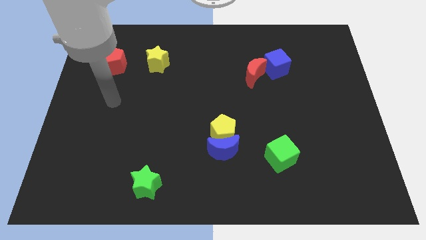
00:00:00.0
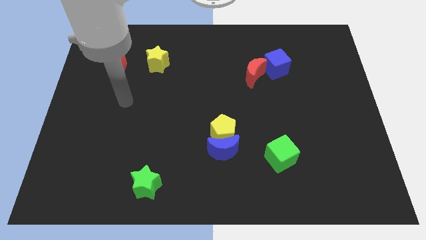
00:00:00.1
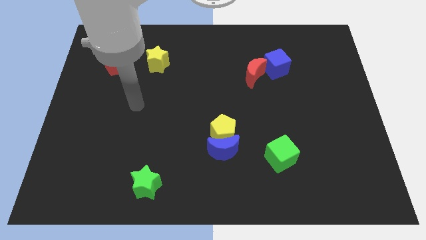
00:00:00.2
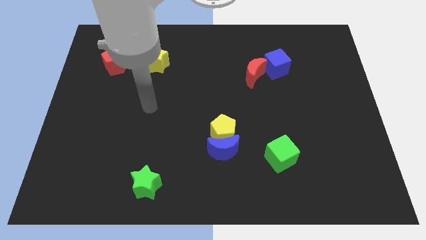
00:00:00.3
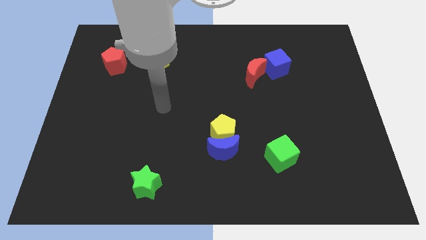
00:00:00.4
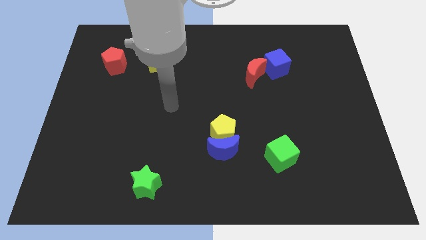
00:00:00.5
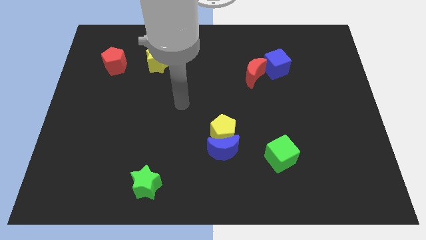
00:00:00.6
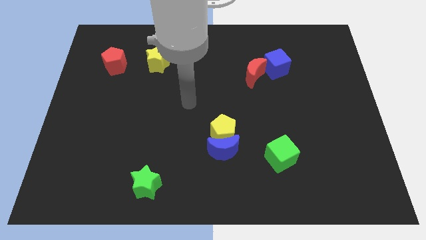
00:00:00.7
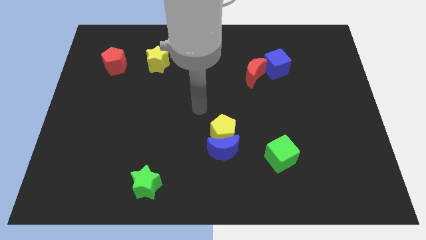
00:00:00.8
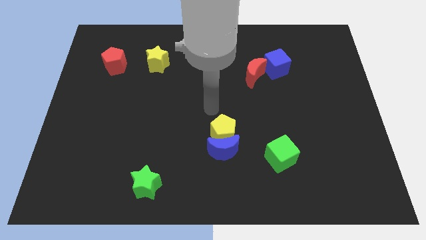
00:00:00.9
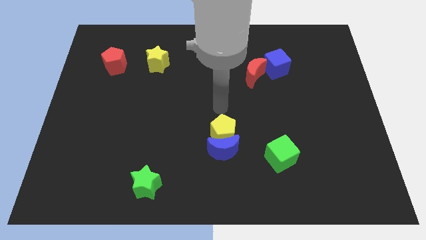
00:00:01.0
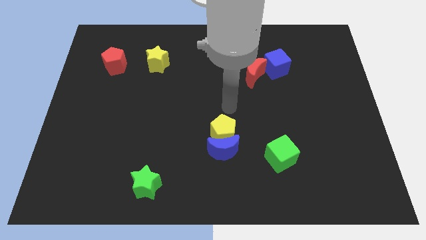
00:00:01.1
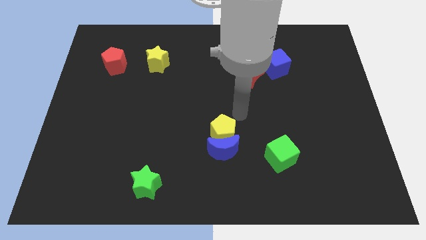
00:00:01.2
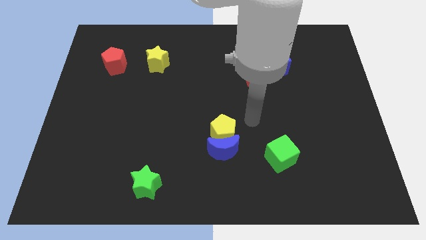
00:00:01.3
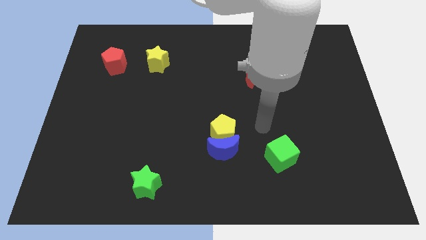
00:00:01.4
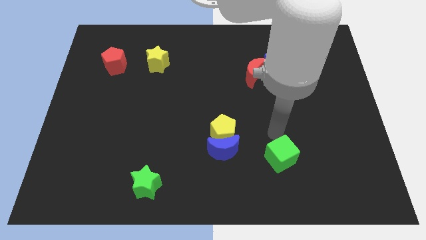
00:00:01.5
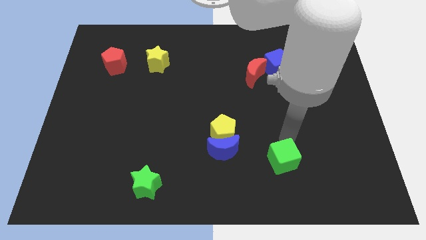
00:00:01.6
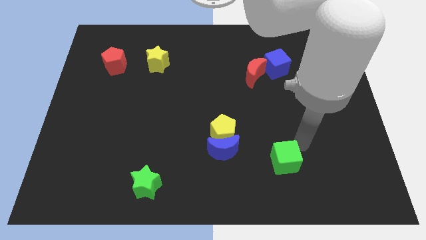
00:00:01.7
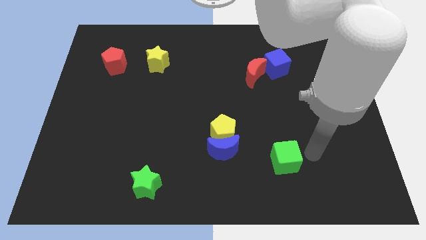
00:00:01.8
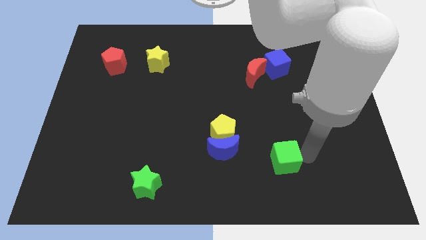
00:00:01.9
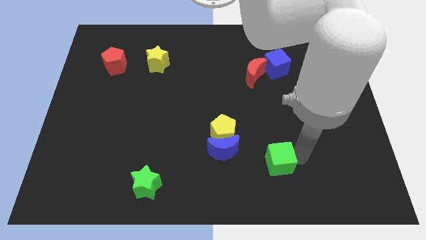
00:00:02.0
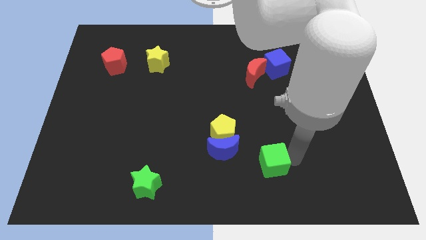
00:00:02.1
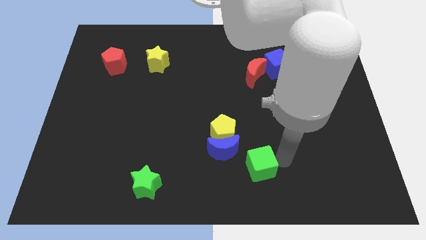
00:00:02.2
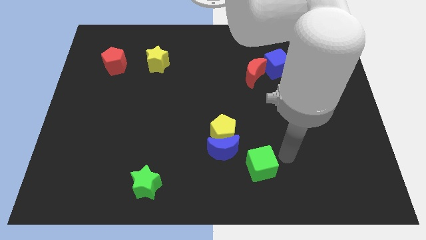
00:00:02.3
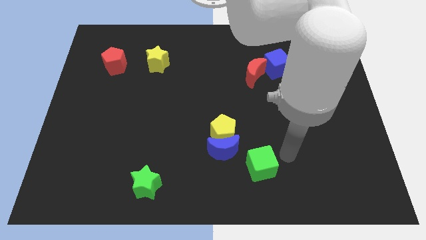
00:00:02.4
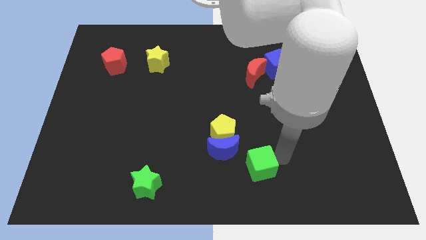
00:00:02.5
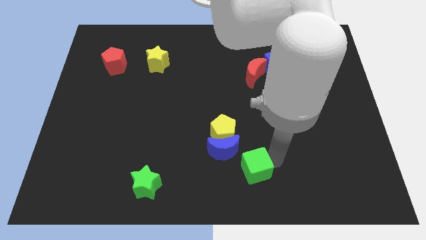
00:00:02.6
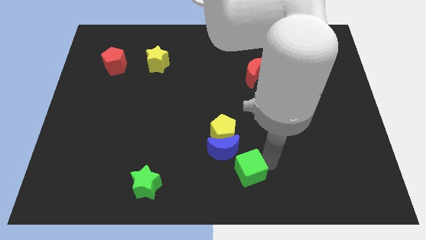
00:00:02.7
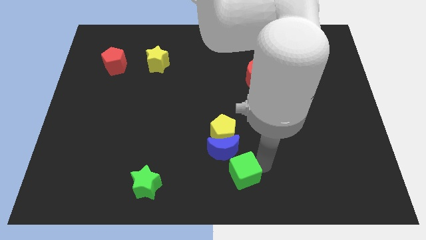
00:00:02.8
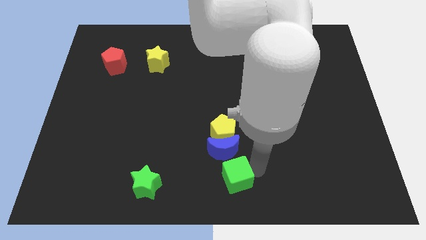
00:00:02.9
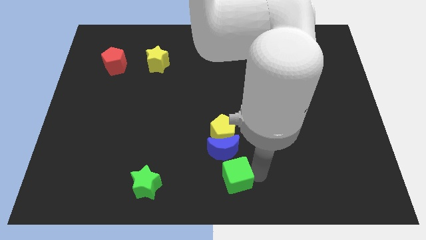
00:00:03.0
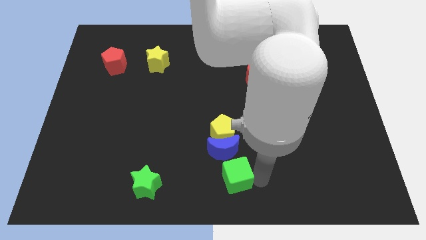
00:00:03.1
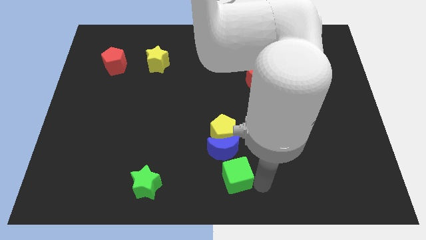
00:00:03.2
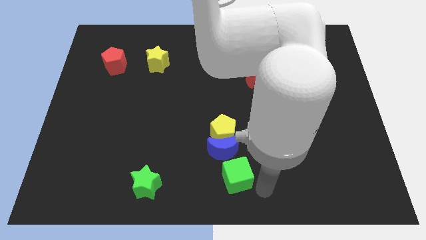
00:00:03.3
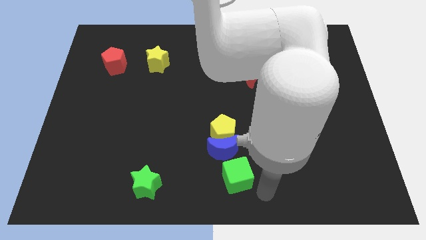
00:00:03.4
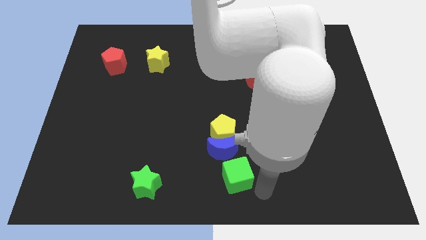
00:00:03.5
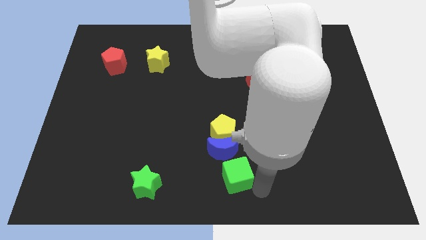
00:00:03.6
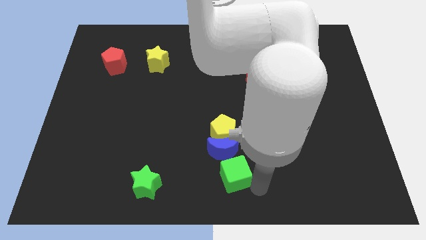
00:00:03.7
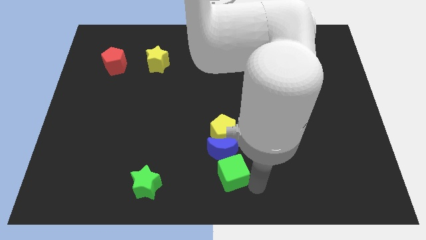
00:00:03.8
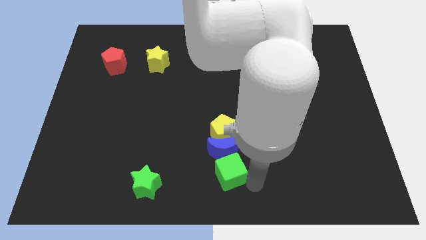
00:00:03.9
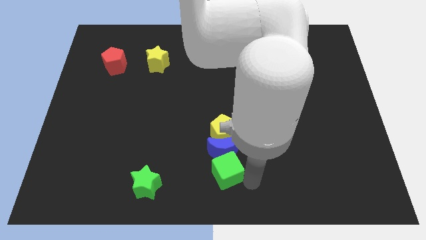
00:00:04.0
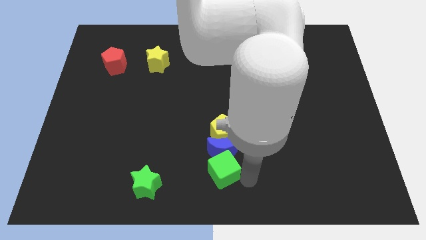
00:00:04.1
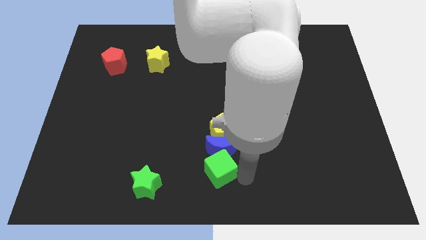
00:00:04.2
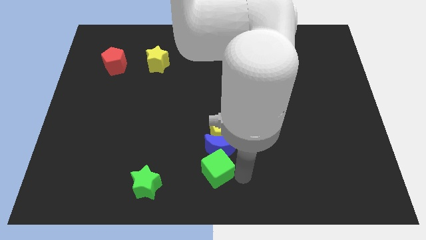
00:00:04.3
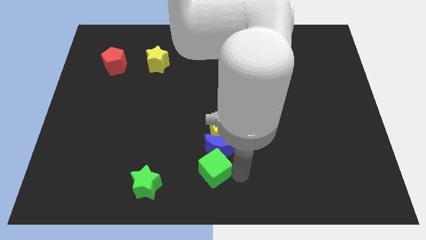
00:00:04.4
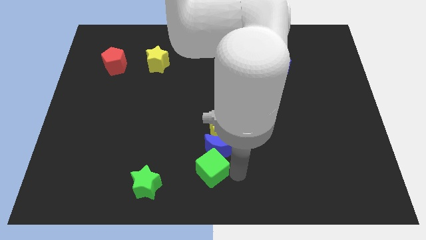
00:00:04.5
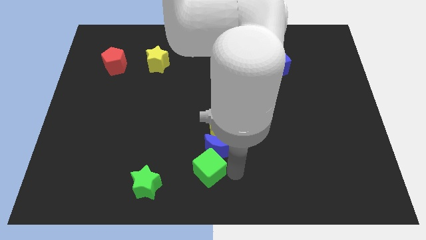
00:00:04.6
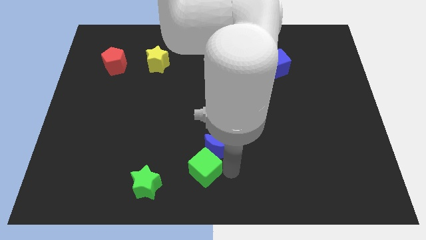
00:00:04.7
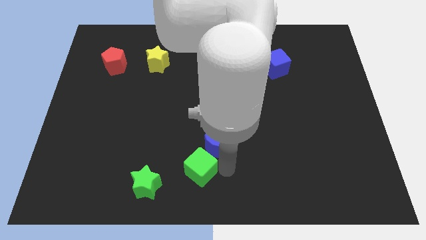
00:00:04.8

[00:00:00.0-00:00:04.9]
move the green cube just left of the blue moon

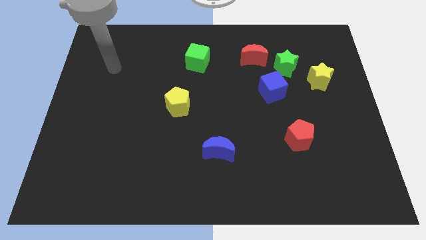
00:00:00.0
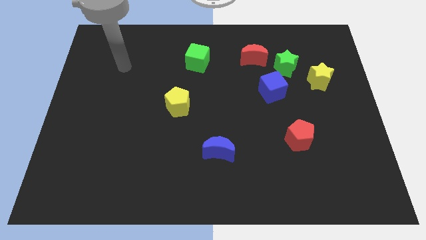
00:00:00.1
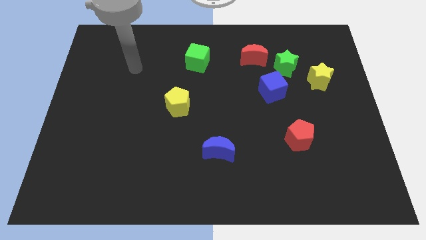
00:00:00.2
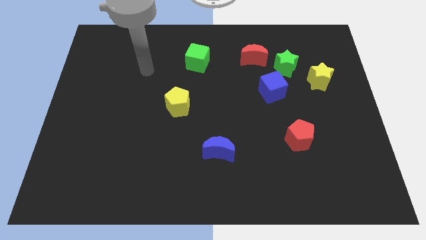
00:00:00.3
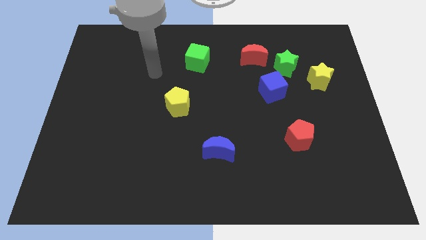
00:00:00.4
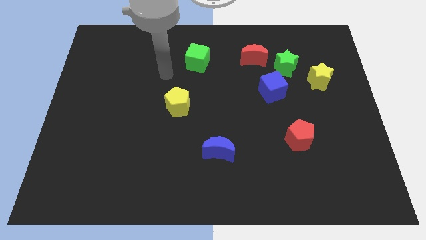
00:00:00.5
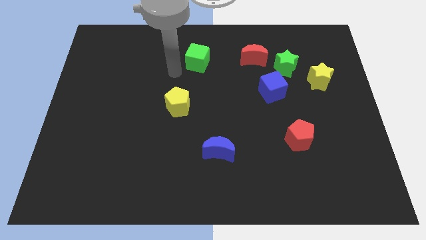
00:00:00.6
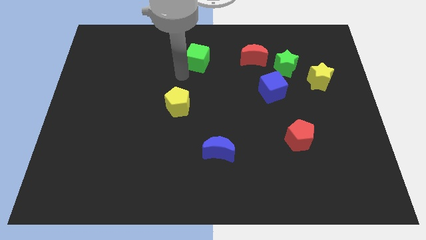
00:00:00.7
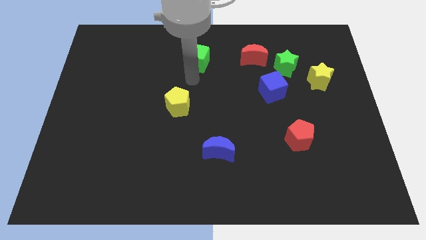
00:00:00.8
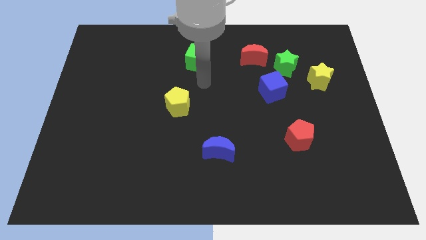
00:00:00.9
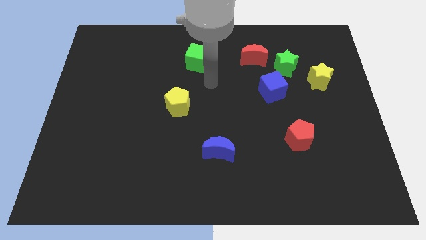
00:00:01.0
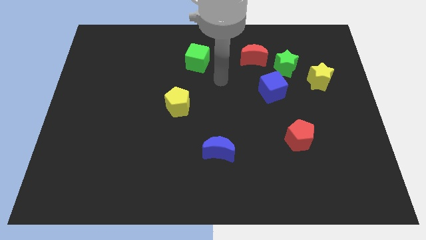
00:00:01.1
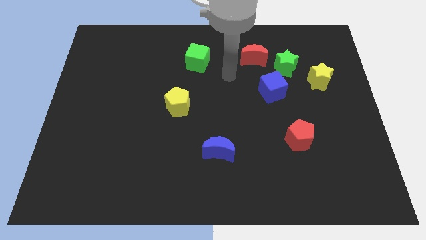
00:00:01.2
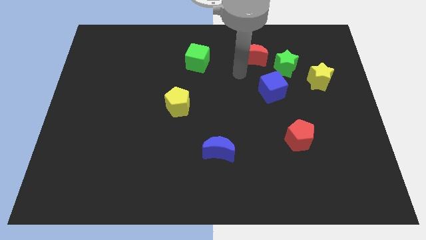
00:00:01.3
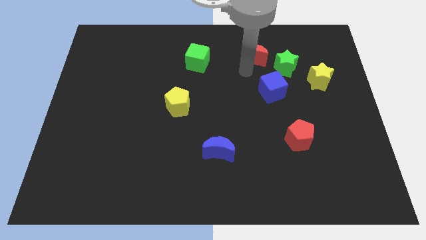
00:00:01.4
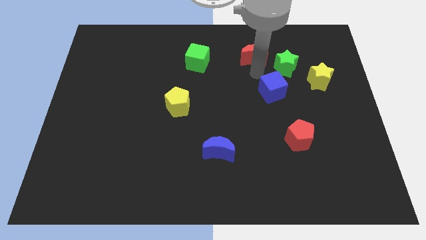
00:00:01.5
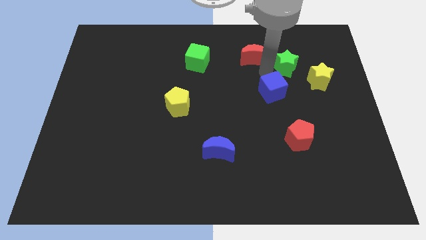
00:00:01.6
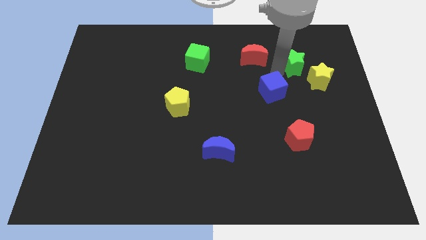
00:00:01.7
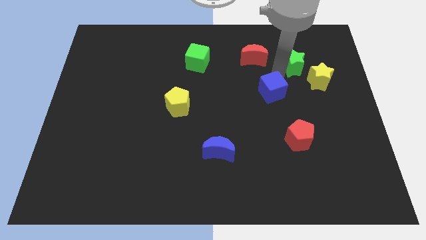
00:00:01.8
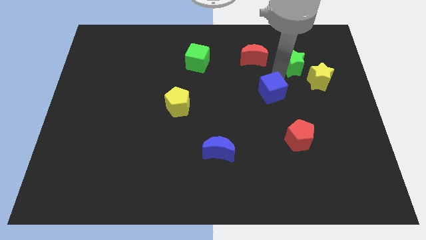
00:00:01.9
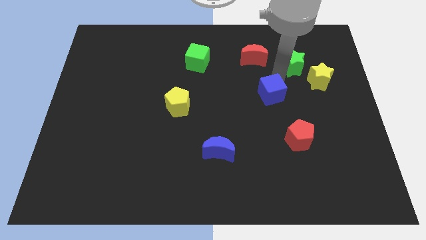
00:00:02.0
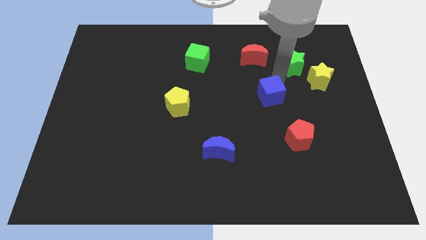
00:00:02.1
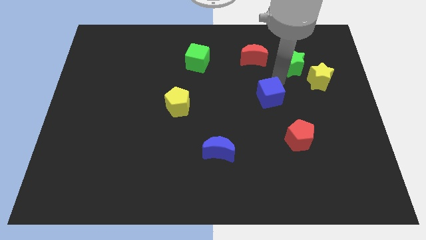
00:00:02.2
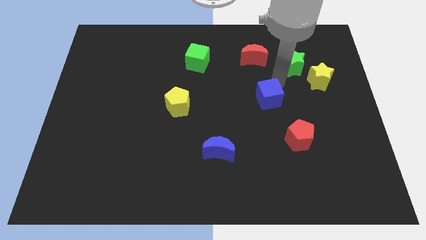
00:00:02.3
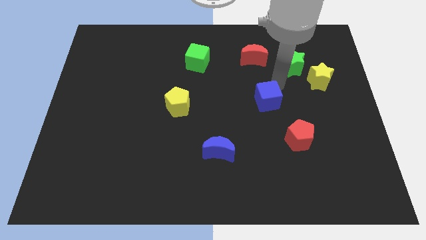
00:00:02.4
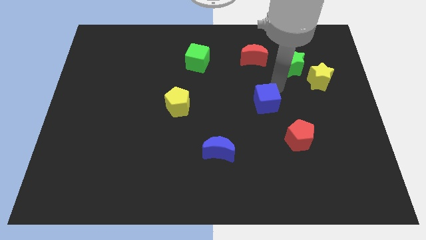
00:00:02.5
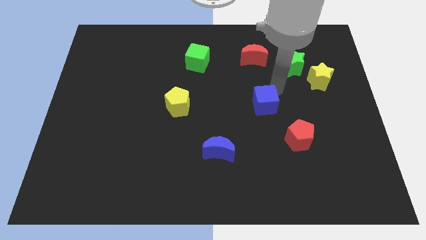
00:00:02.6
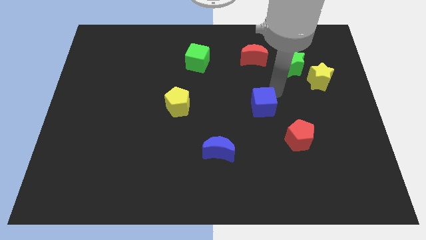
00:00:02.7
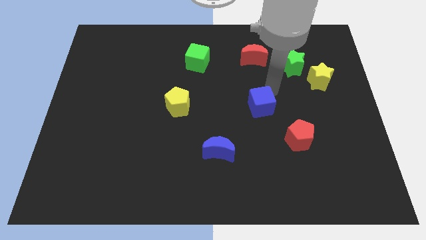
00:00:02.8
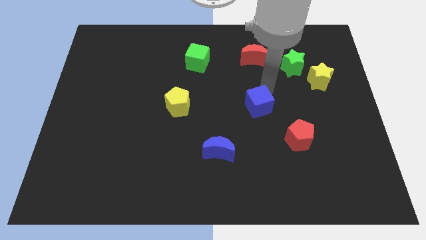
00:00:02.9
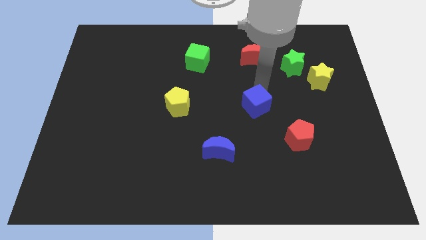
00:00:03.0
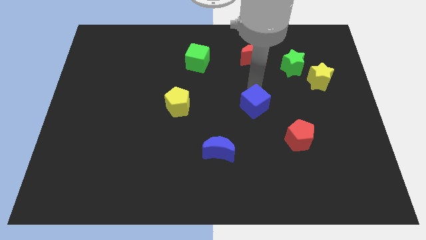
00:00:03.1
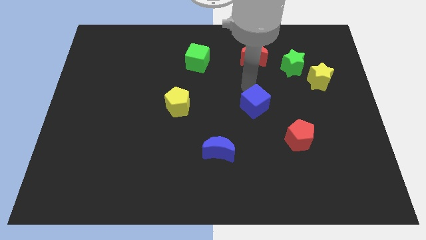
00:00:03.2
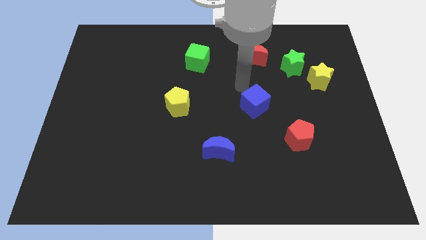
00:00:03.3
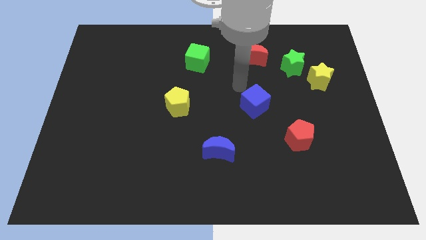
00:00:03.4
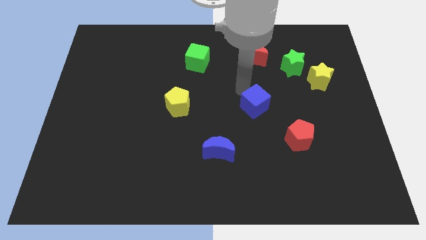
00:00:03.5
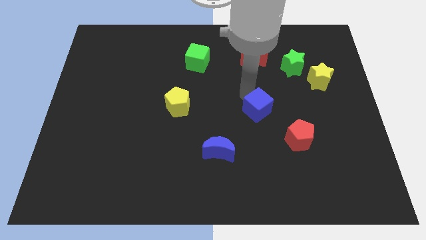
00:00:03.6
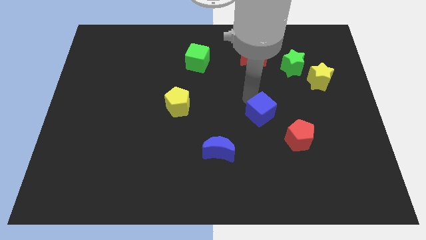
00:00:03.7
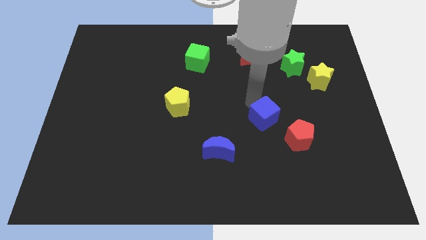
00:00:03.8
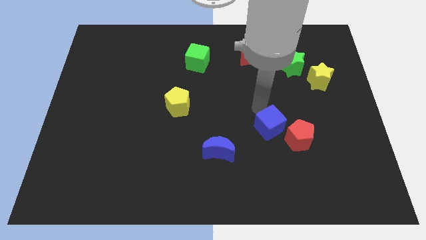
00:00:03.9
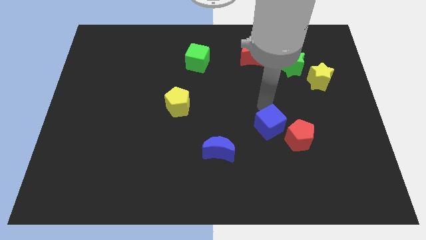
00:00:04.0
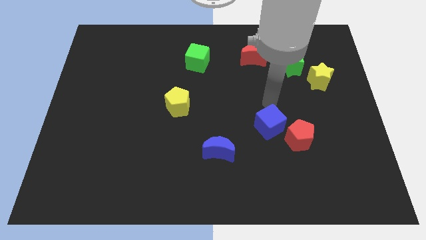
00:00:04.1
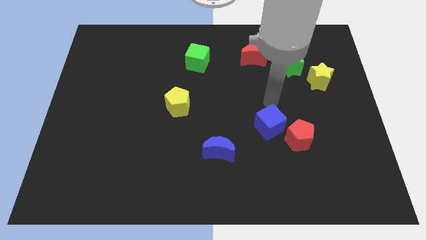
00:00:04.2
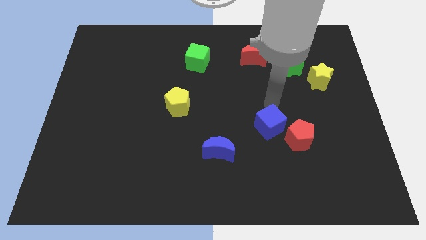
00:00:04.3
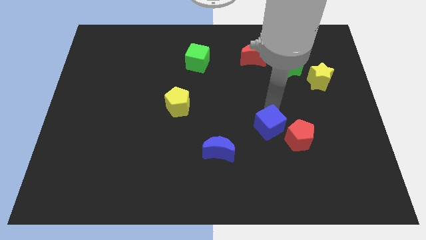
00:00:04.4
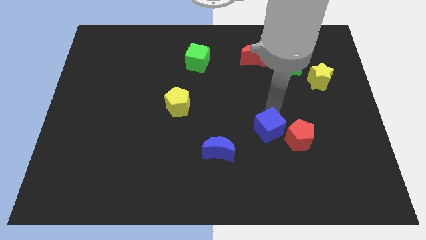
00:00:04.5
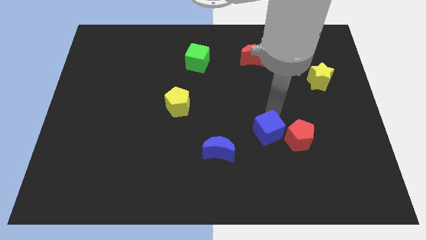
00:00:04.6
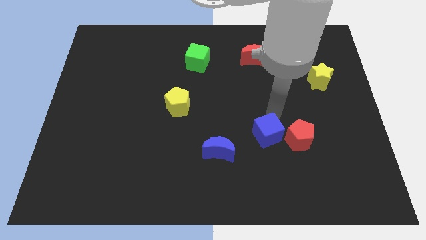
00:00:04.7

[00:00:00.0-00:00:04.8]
put the blue cube just right of the blue moon
